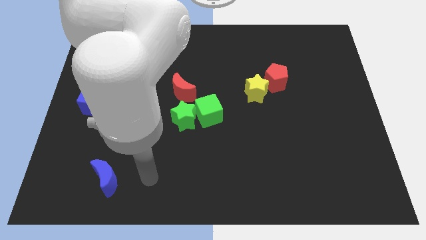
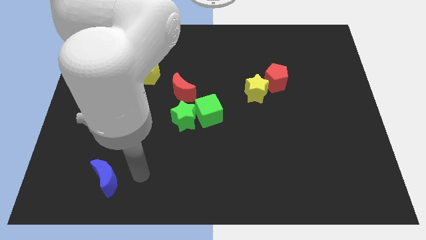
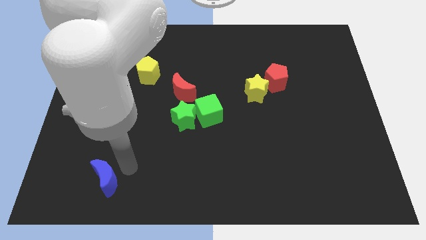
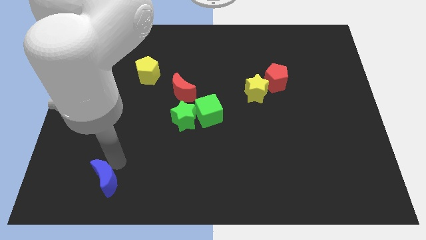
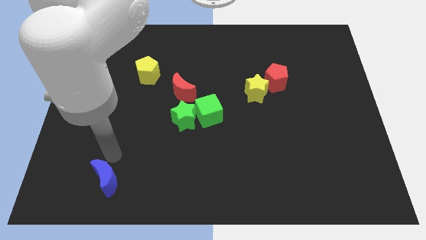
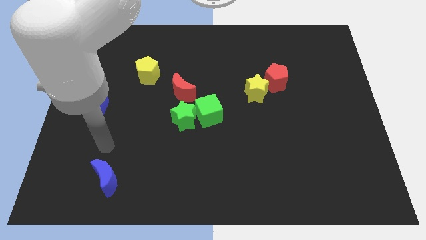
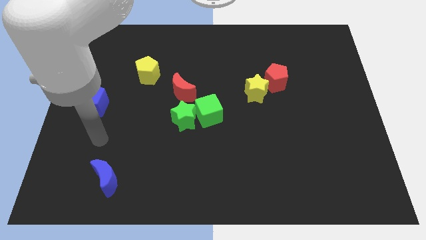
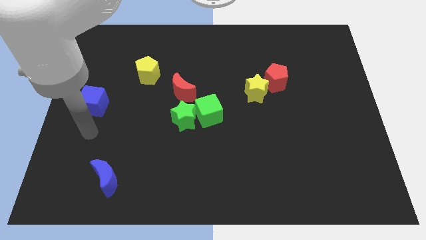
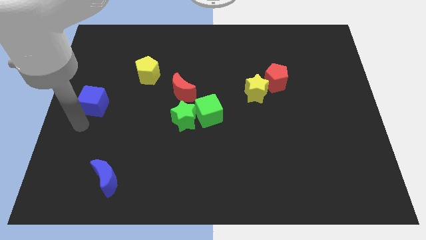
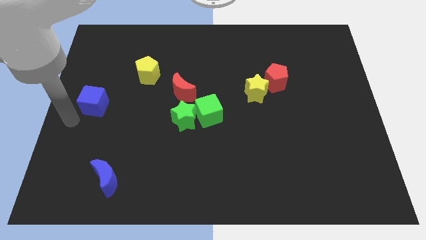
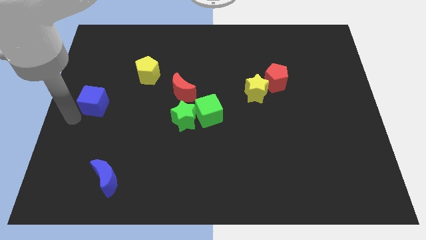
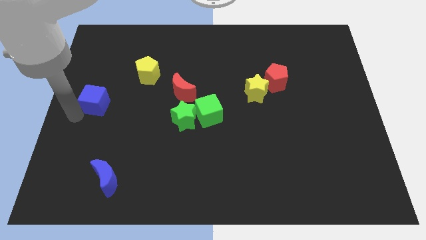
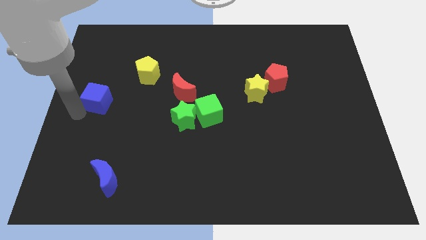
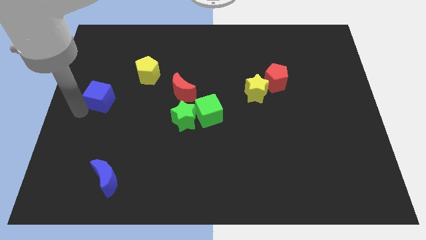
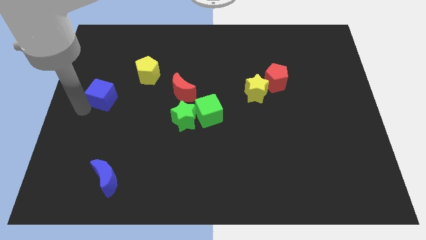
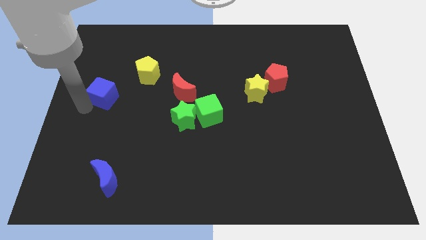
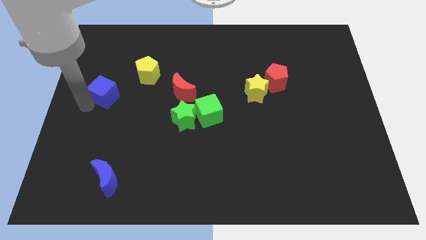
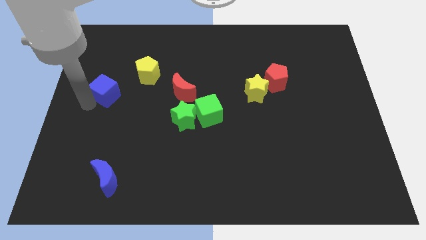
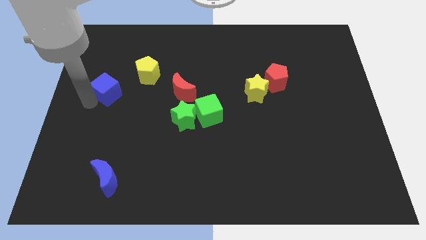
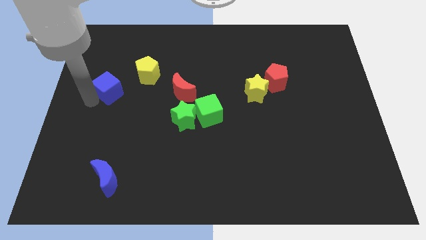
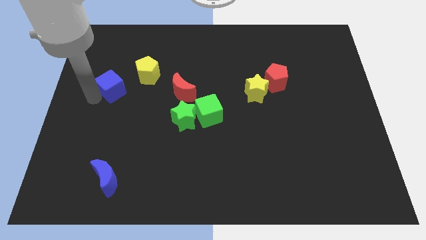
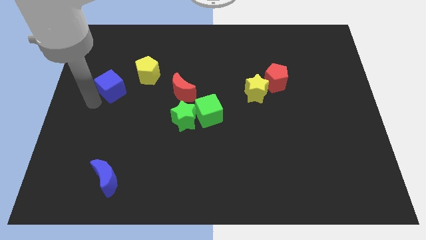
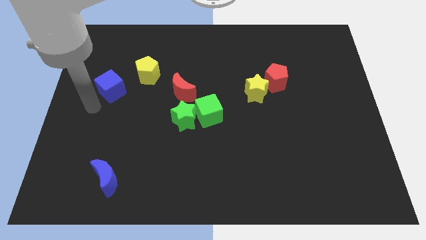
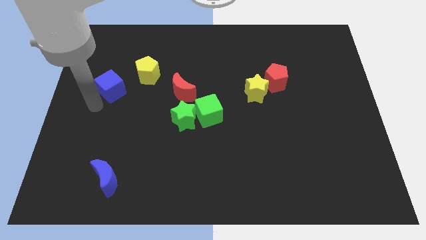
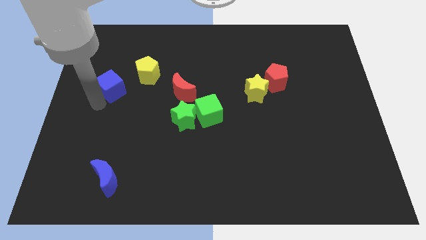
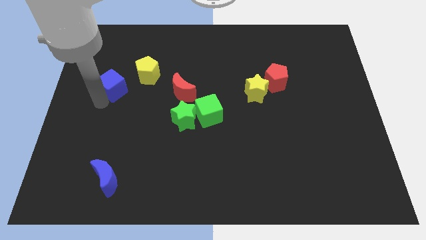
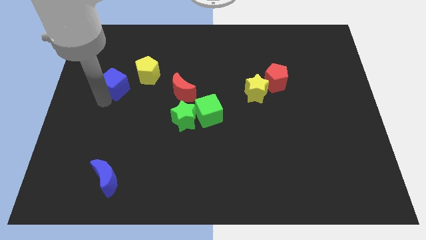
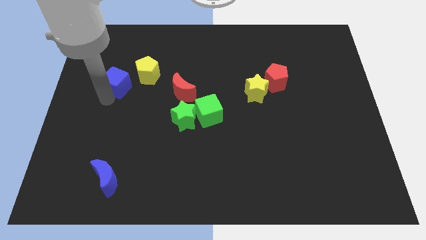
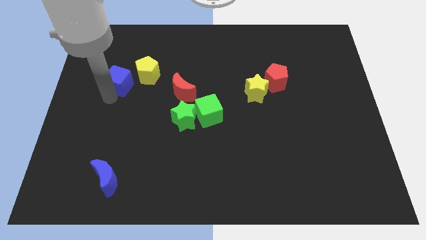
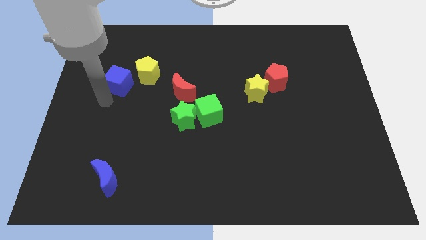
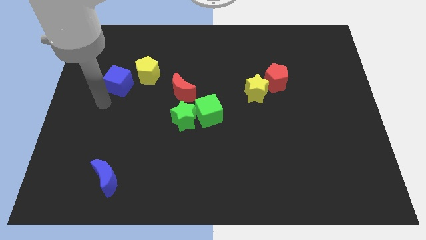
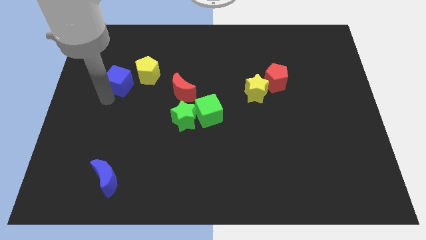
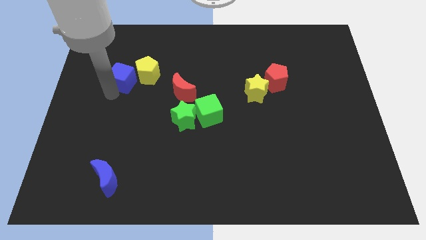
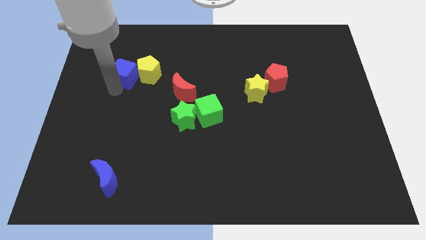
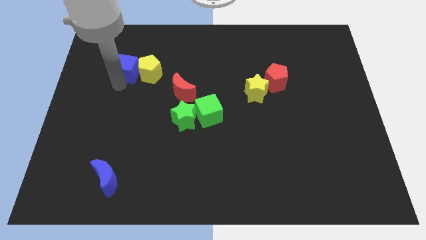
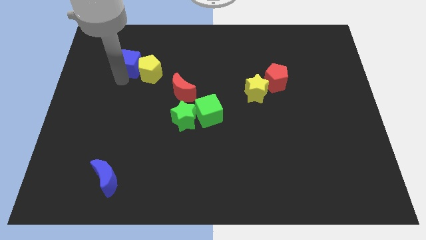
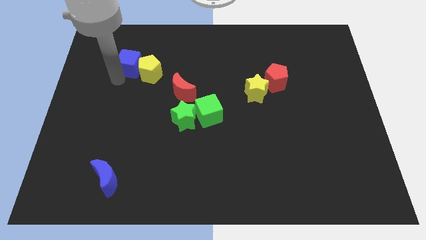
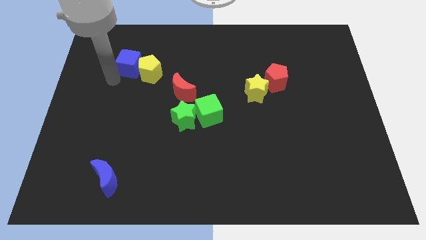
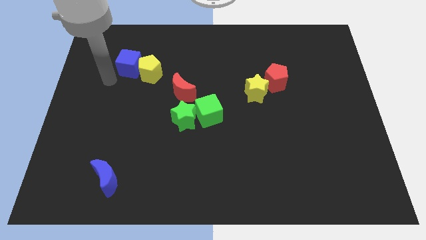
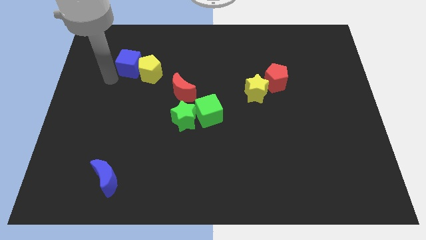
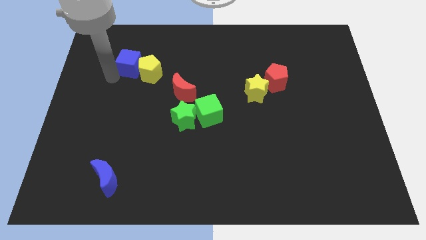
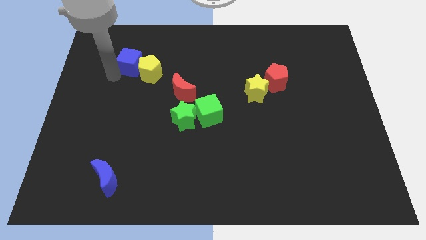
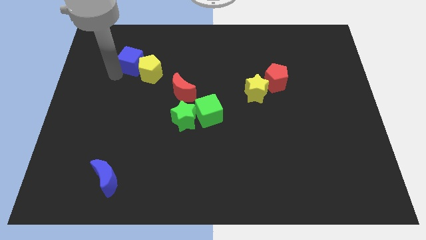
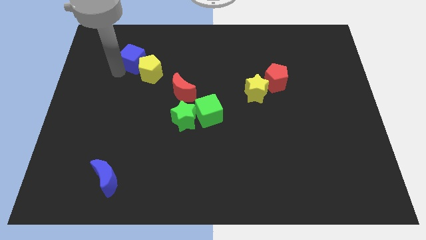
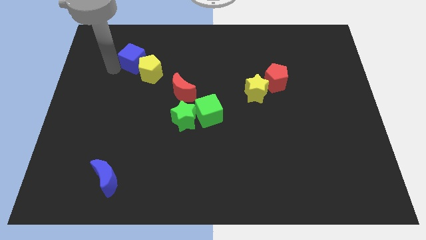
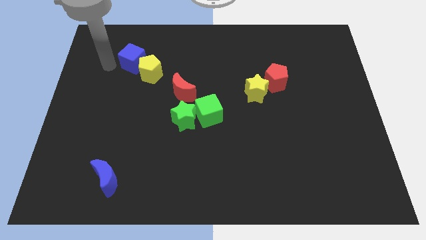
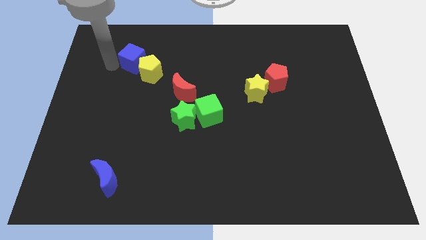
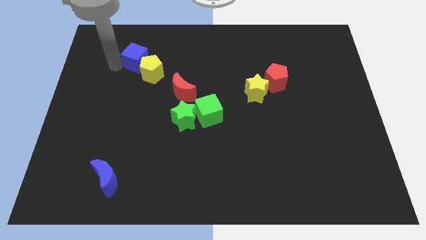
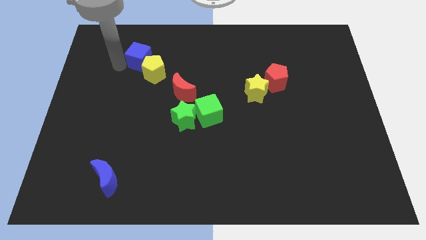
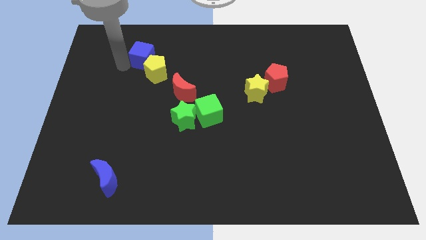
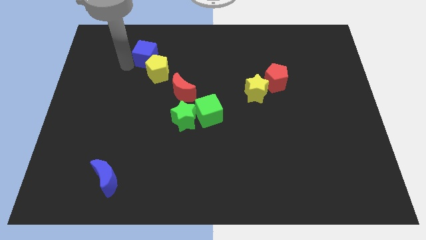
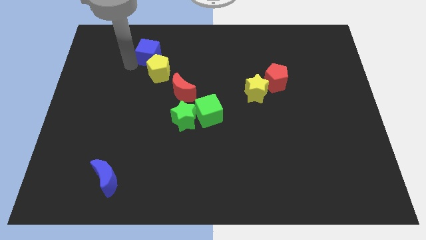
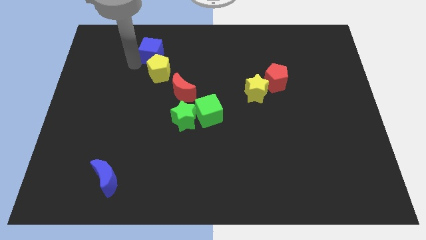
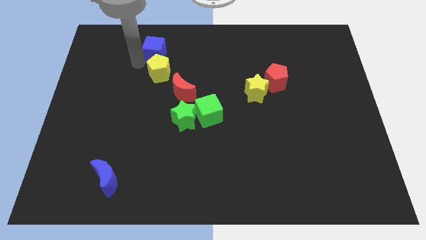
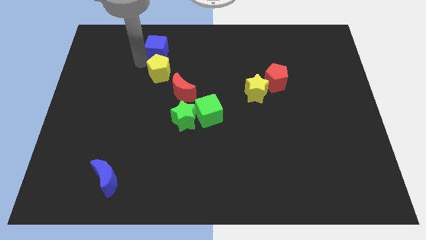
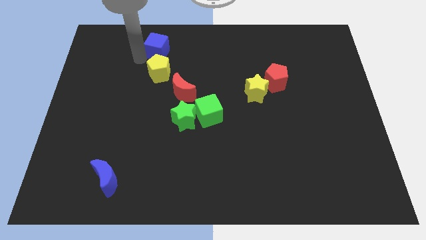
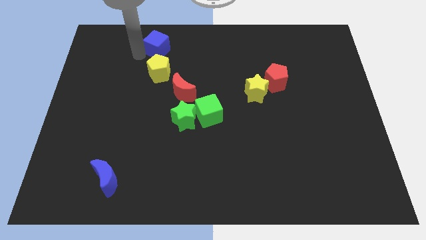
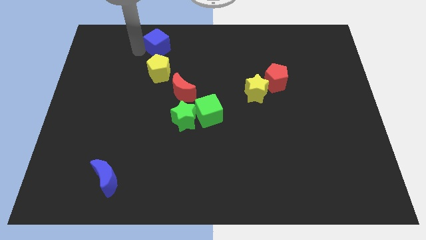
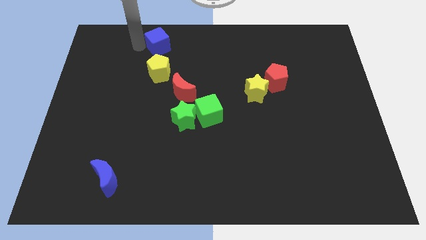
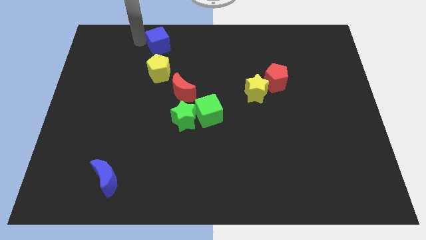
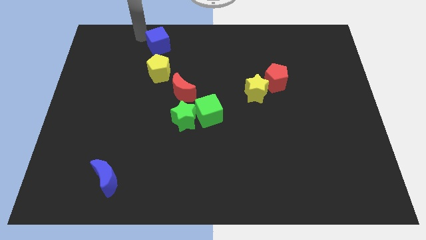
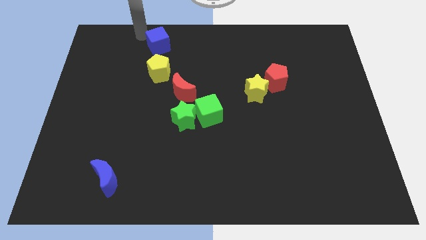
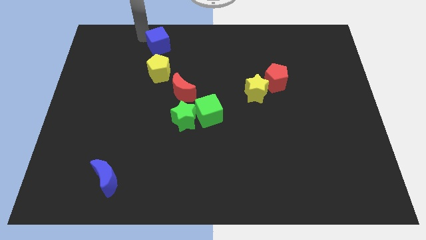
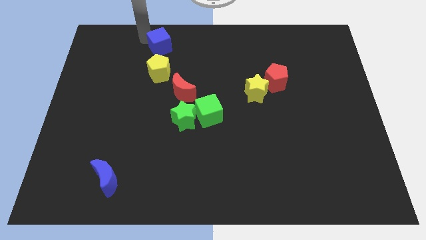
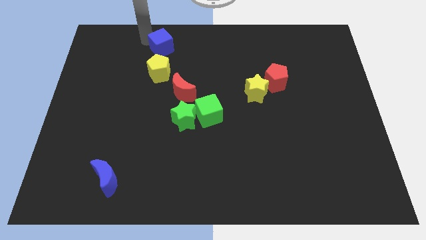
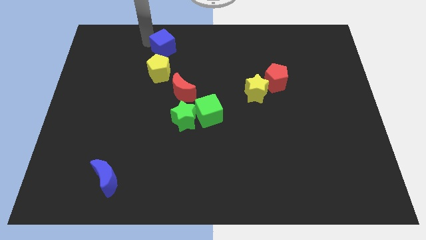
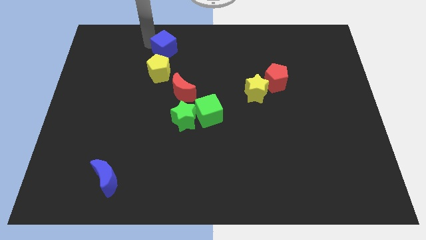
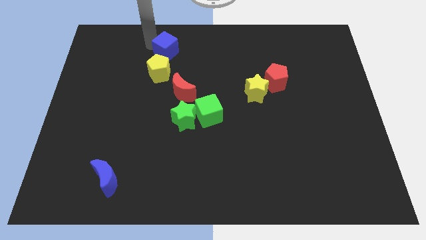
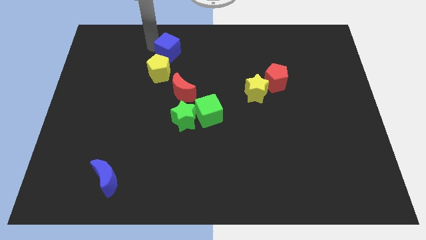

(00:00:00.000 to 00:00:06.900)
put the blue cube to the top right of the yellow pentagon

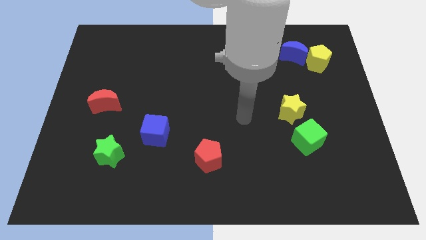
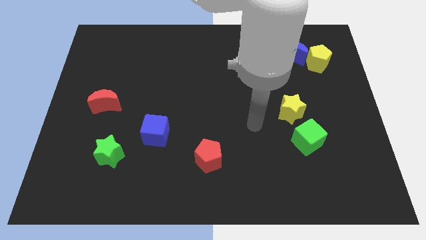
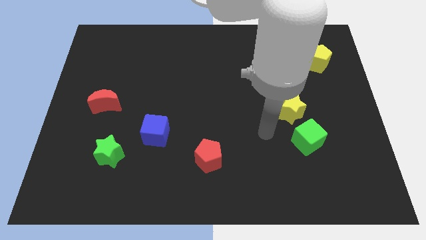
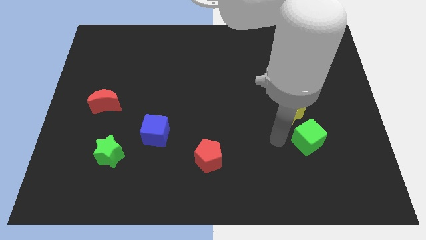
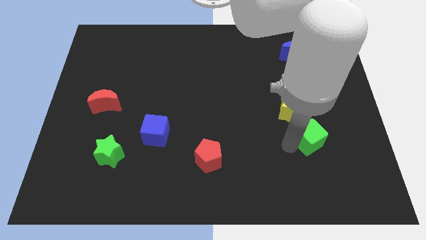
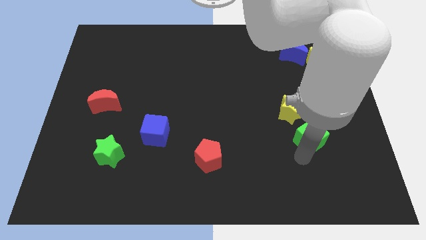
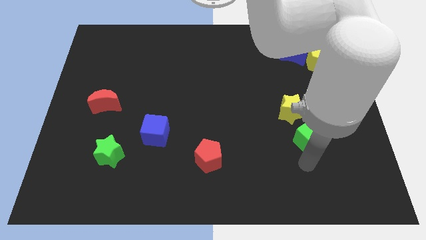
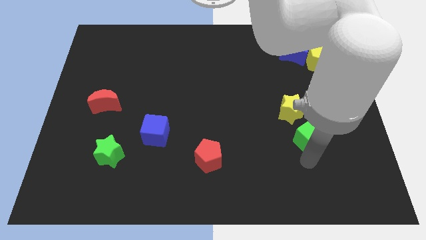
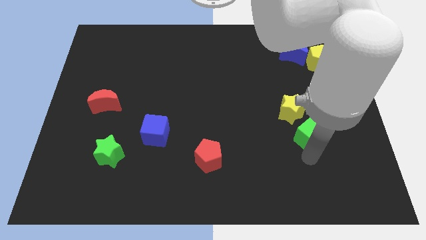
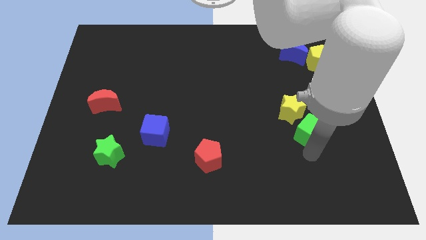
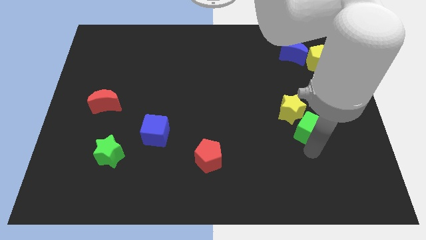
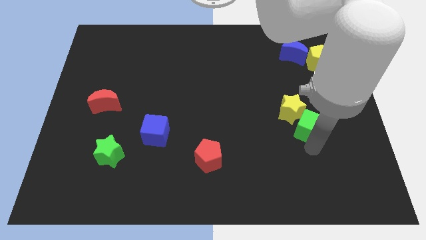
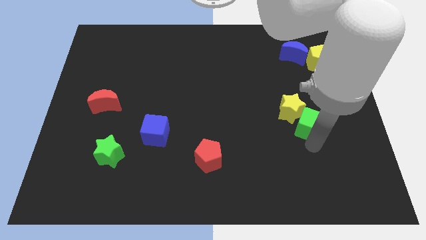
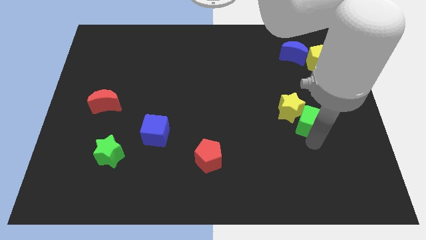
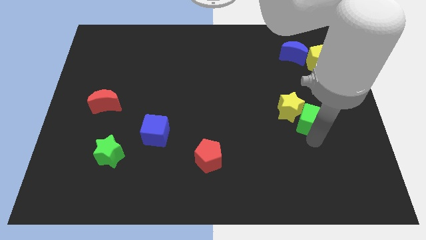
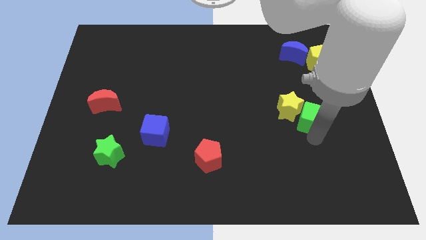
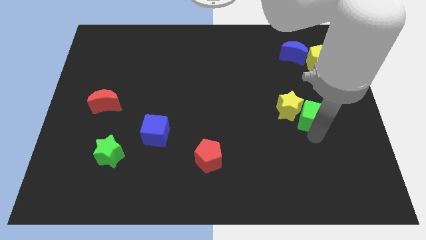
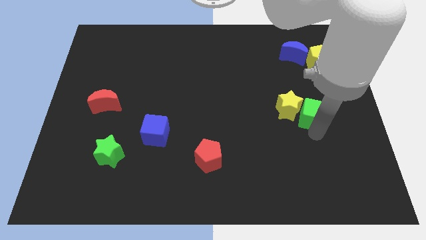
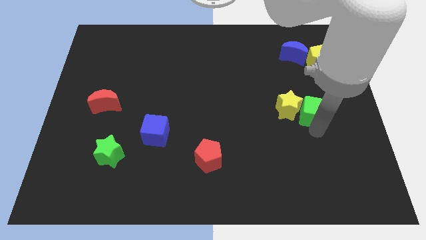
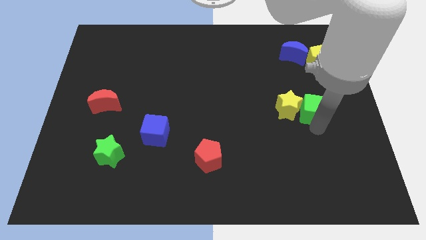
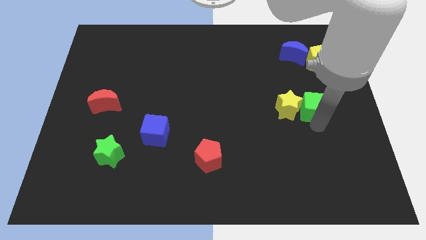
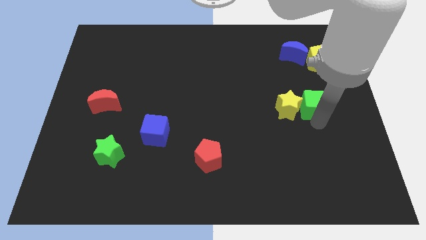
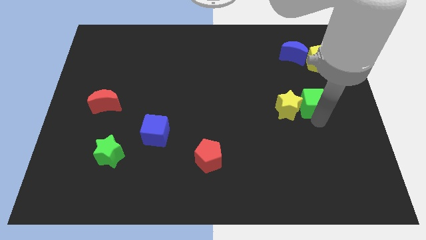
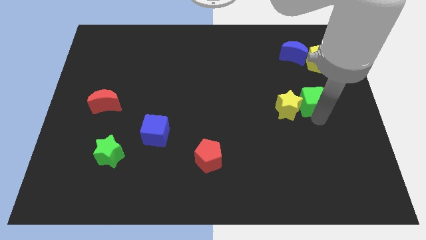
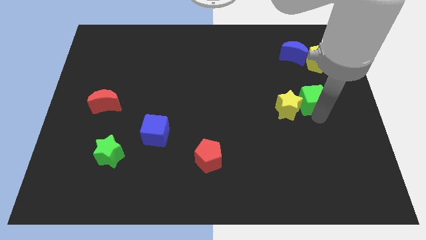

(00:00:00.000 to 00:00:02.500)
put the green cube to the bottom of the blue moon
